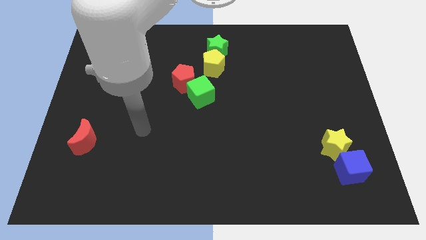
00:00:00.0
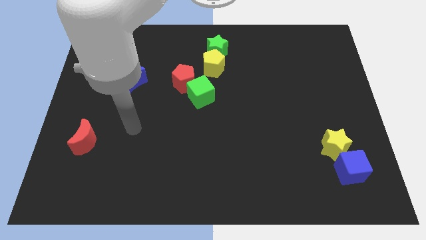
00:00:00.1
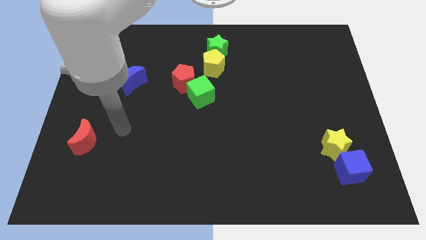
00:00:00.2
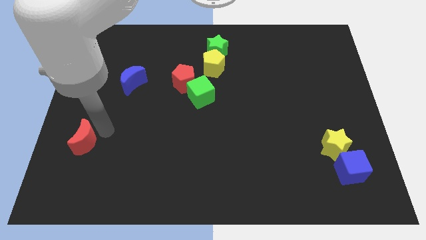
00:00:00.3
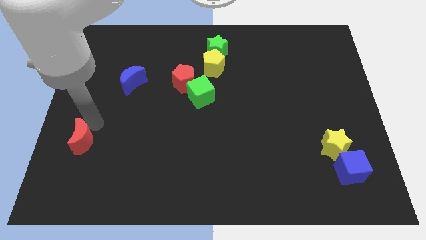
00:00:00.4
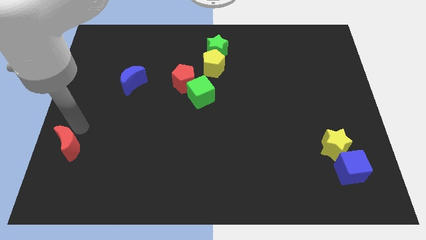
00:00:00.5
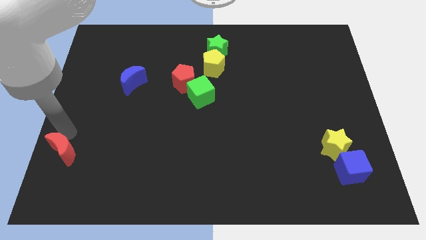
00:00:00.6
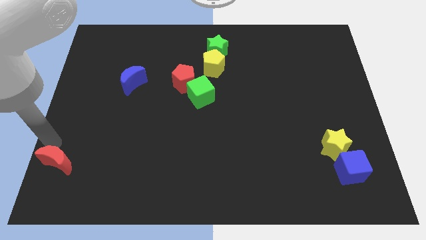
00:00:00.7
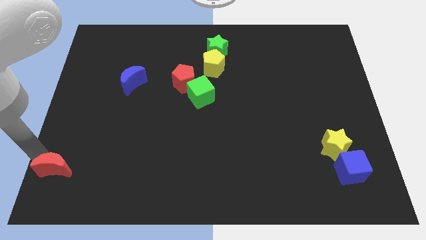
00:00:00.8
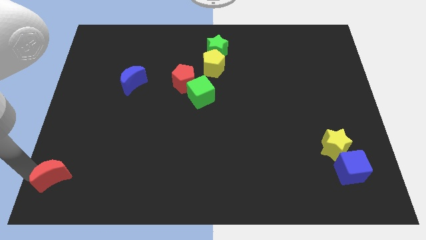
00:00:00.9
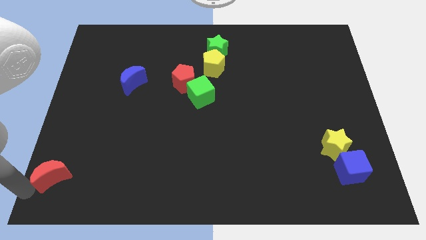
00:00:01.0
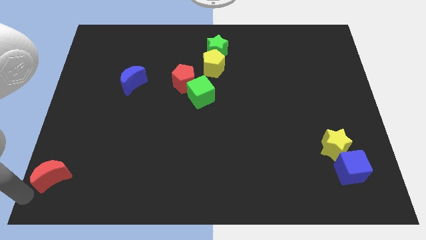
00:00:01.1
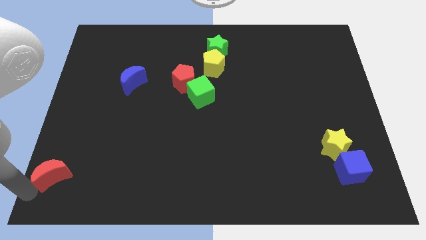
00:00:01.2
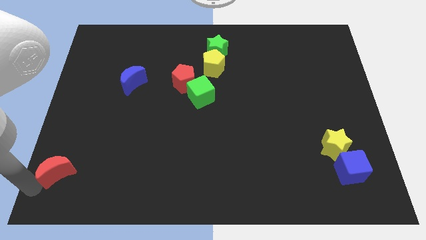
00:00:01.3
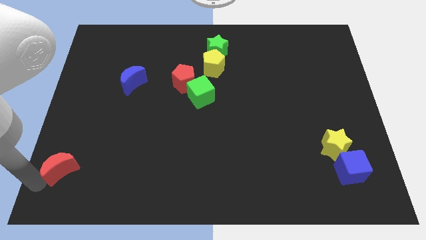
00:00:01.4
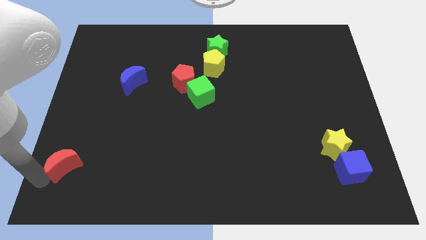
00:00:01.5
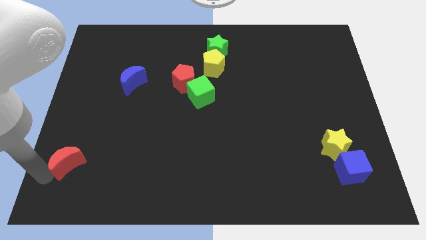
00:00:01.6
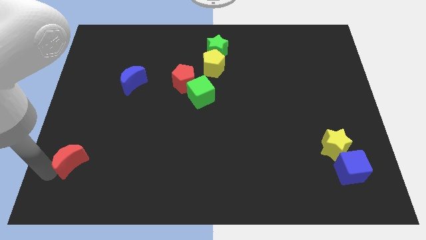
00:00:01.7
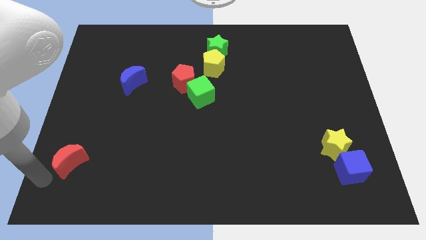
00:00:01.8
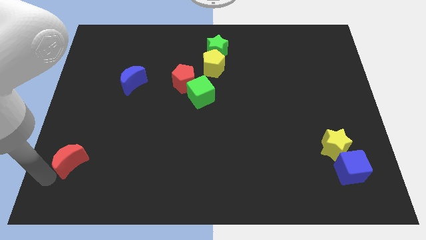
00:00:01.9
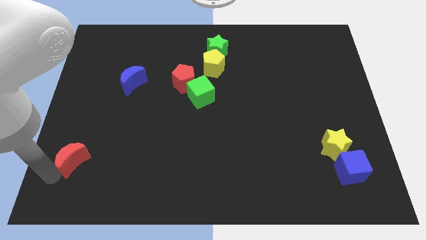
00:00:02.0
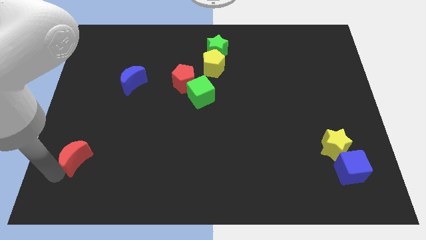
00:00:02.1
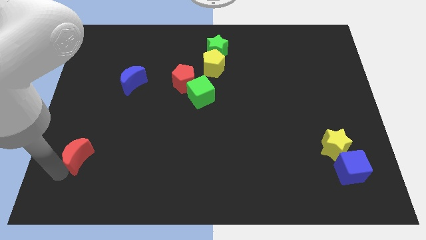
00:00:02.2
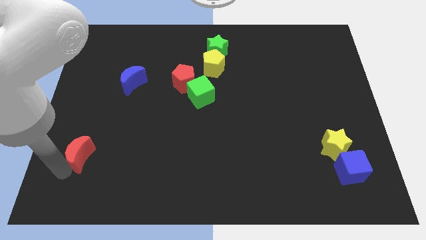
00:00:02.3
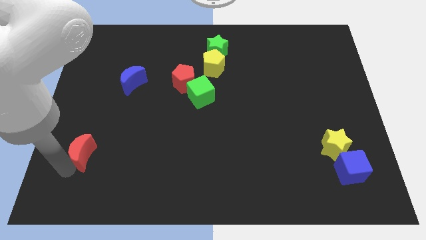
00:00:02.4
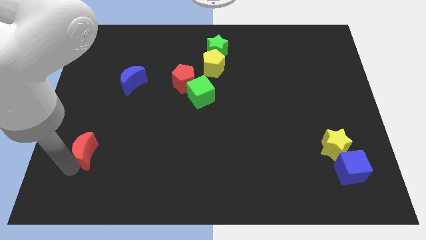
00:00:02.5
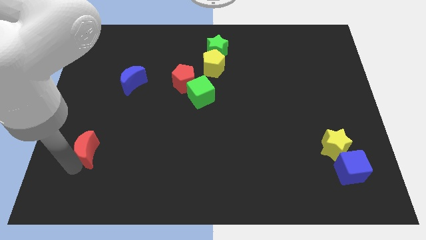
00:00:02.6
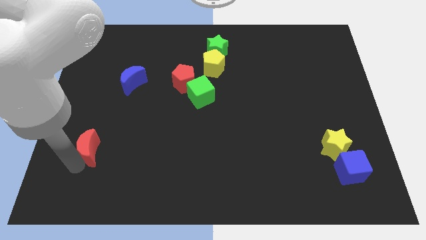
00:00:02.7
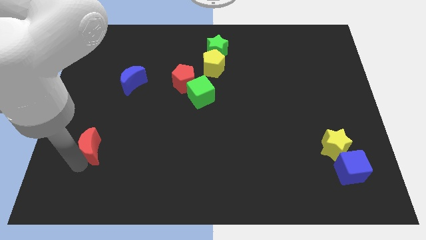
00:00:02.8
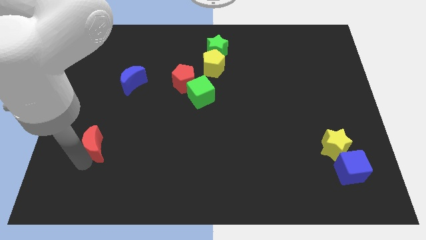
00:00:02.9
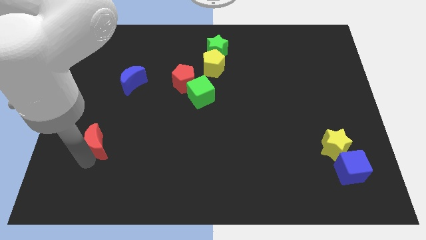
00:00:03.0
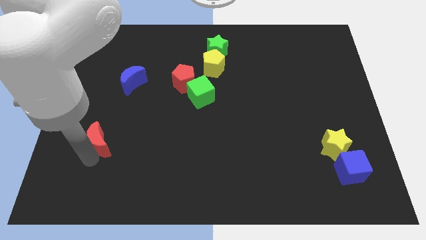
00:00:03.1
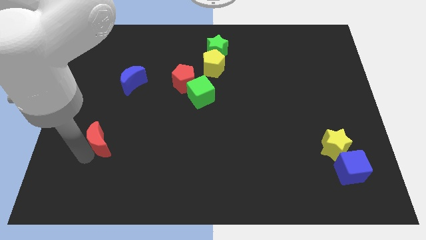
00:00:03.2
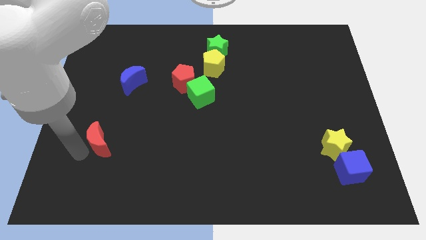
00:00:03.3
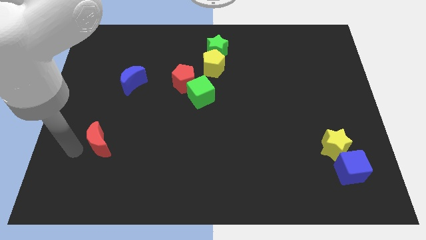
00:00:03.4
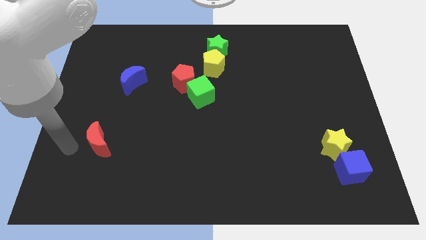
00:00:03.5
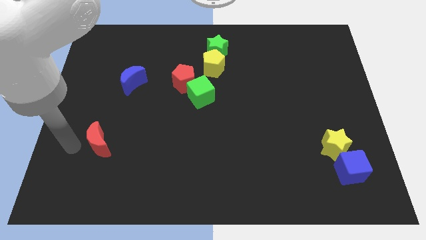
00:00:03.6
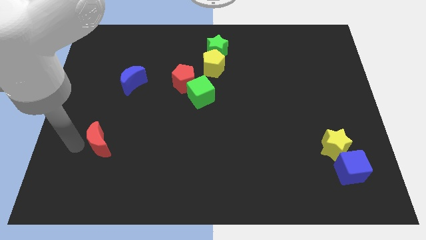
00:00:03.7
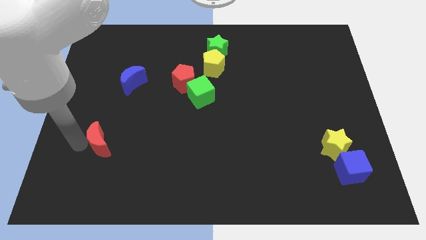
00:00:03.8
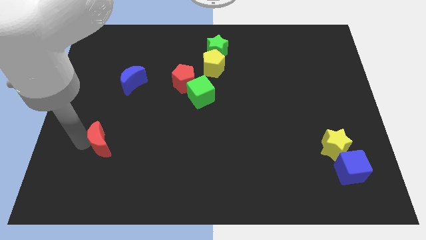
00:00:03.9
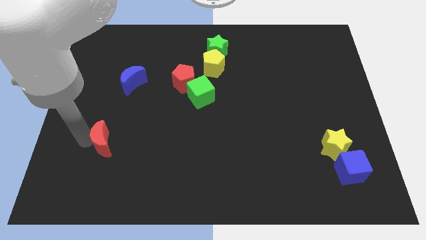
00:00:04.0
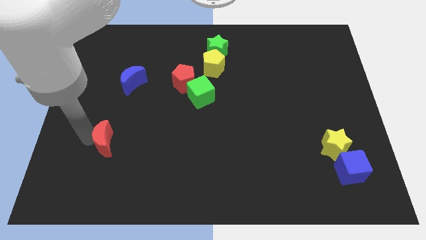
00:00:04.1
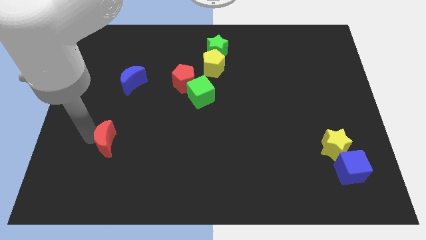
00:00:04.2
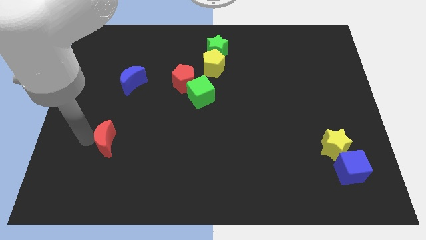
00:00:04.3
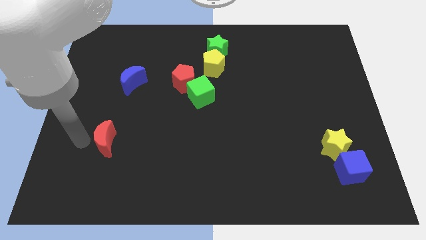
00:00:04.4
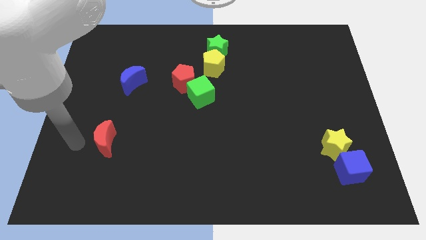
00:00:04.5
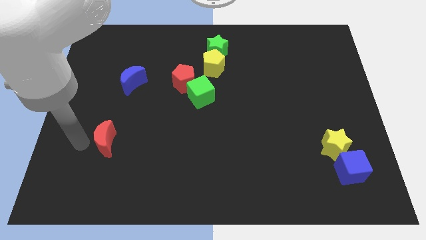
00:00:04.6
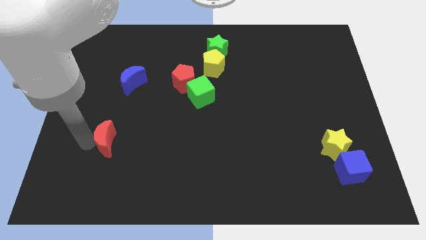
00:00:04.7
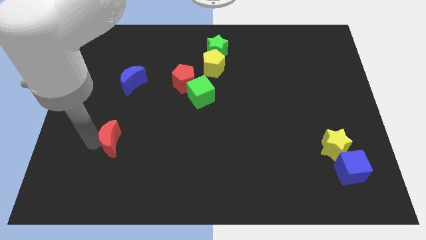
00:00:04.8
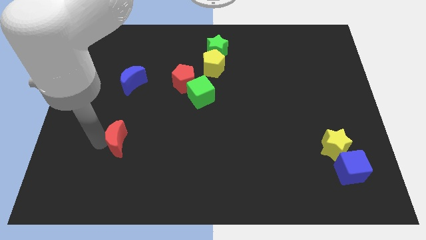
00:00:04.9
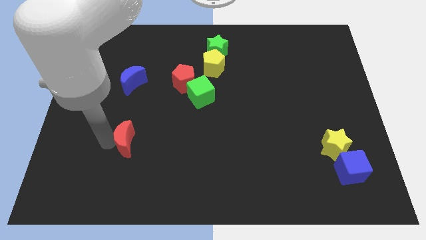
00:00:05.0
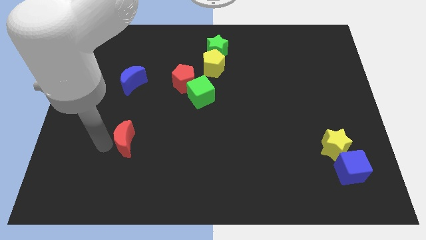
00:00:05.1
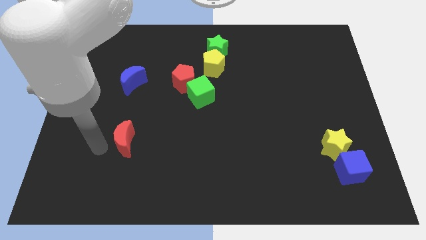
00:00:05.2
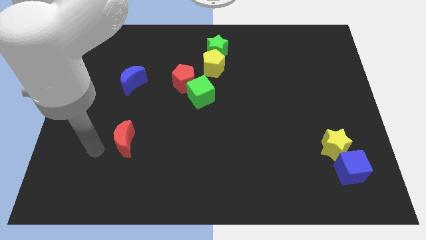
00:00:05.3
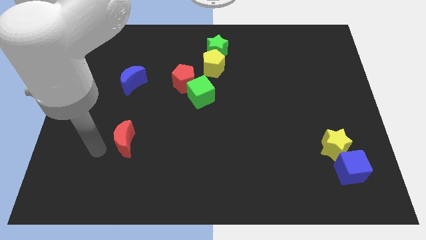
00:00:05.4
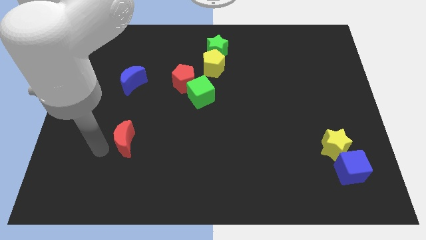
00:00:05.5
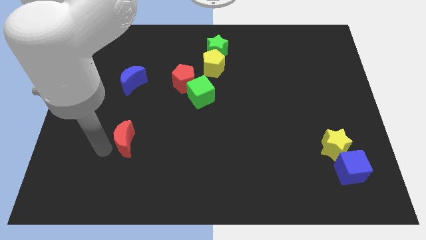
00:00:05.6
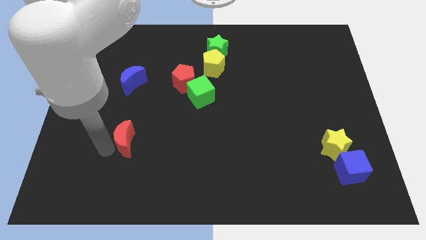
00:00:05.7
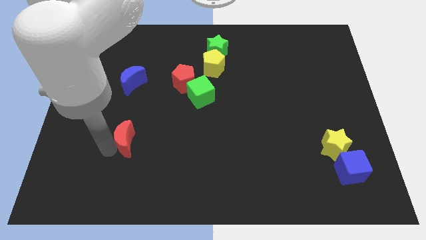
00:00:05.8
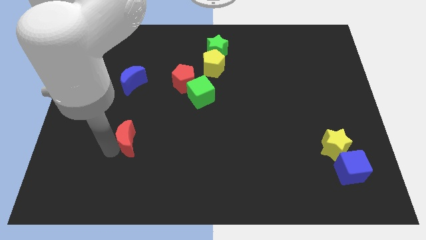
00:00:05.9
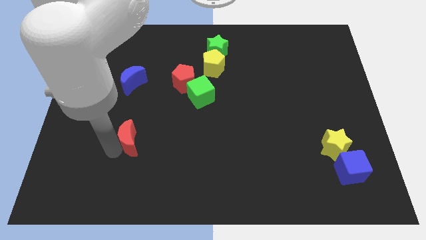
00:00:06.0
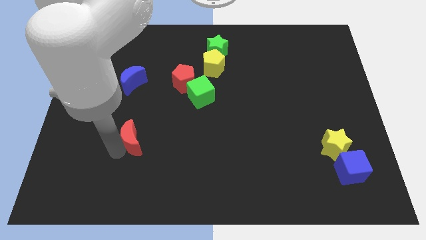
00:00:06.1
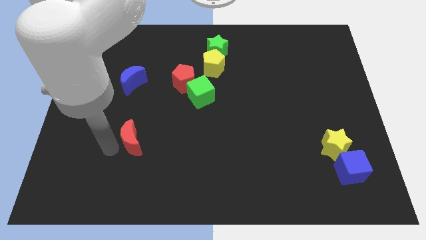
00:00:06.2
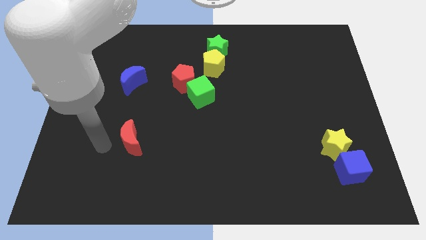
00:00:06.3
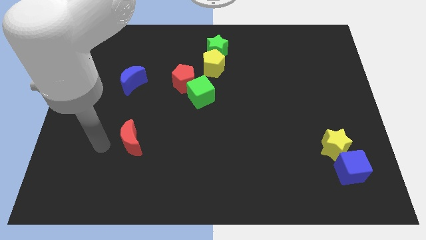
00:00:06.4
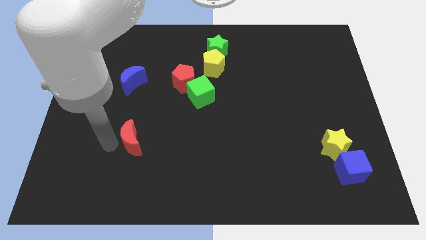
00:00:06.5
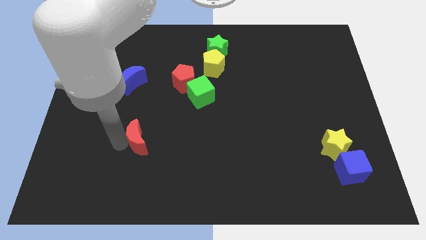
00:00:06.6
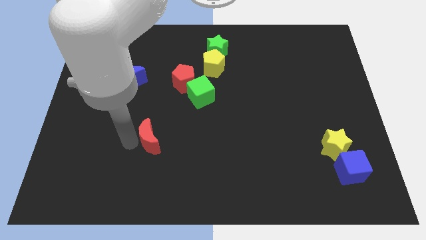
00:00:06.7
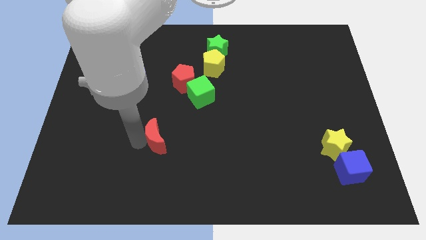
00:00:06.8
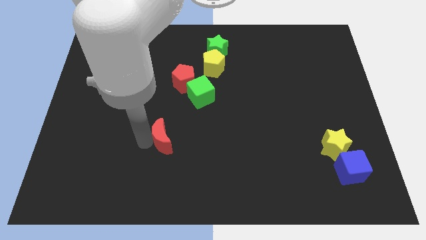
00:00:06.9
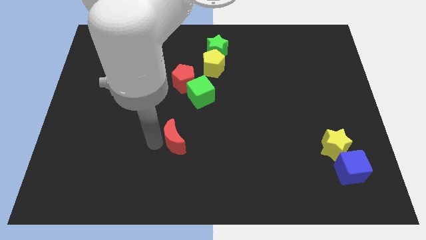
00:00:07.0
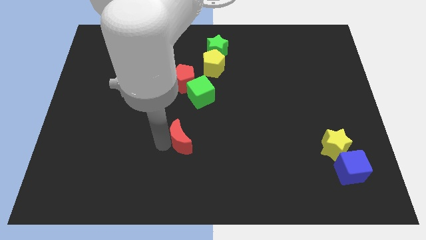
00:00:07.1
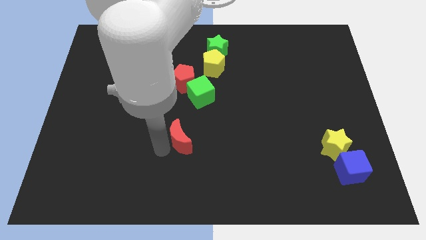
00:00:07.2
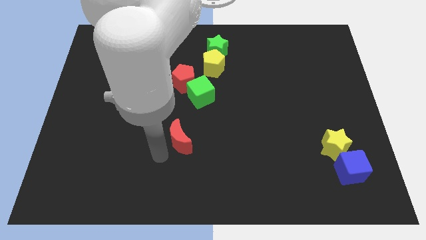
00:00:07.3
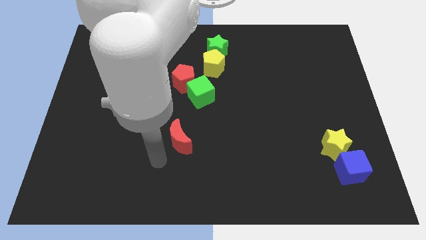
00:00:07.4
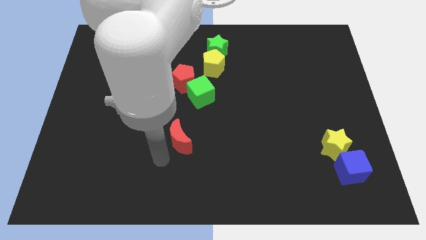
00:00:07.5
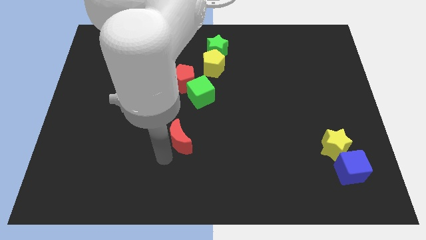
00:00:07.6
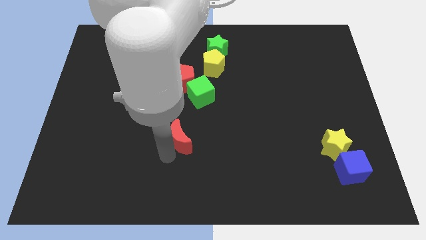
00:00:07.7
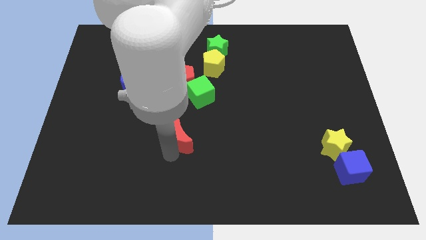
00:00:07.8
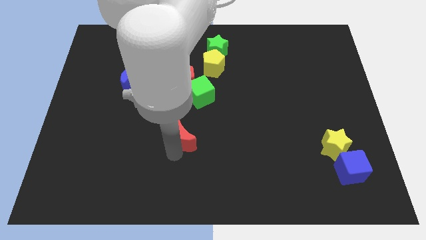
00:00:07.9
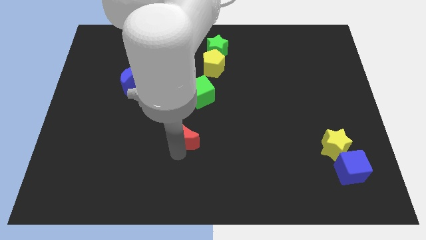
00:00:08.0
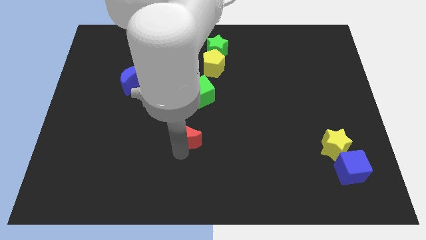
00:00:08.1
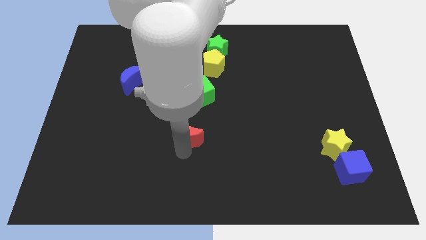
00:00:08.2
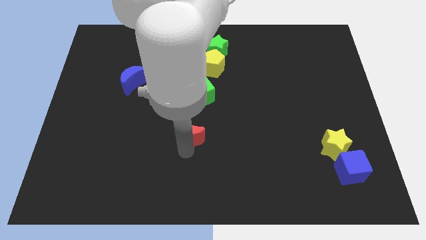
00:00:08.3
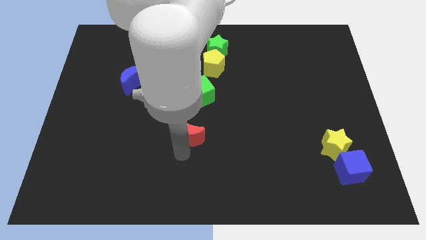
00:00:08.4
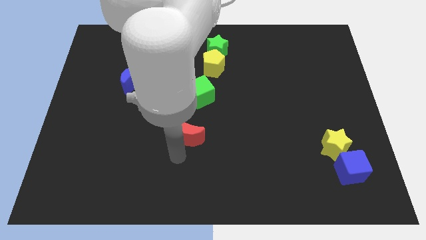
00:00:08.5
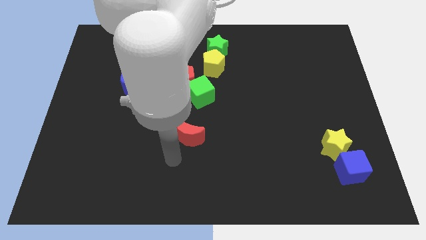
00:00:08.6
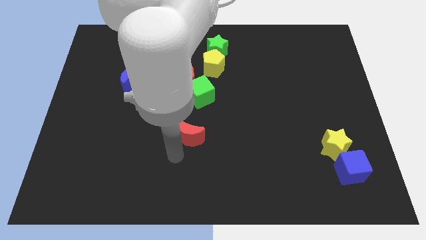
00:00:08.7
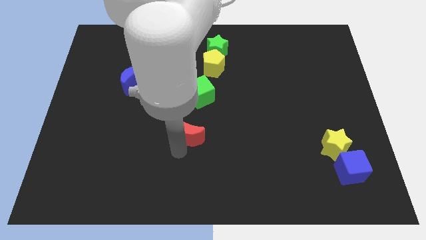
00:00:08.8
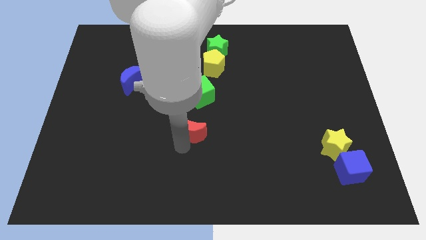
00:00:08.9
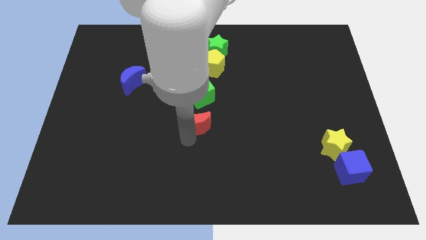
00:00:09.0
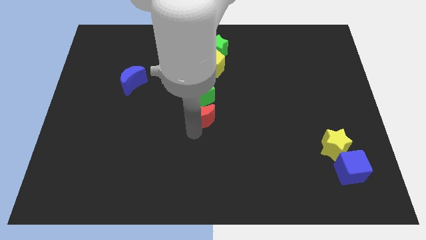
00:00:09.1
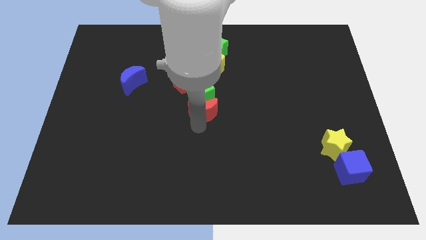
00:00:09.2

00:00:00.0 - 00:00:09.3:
slide the red moon to the bottom right side of the red pentagon
